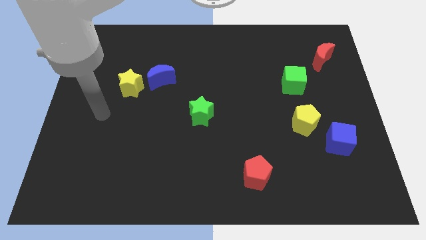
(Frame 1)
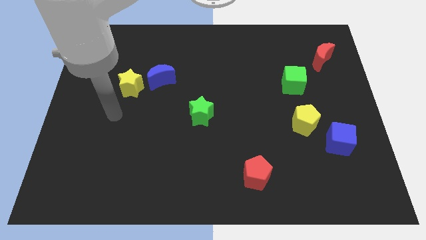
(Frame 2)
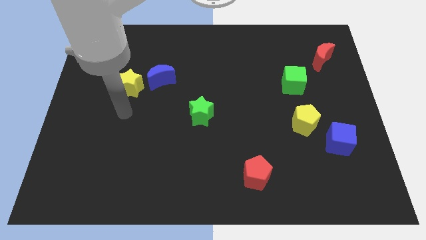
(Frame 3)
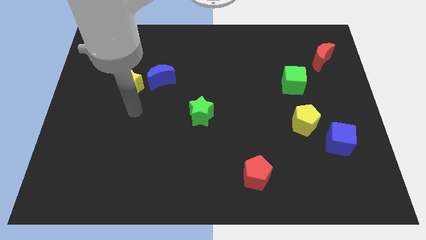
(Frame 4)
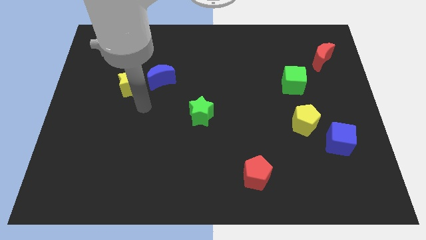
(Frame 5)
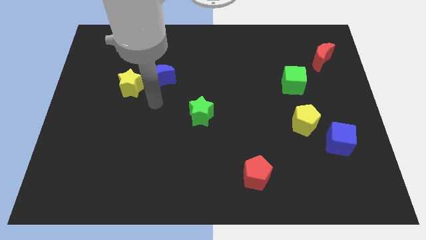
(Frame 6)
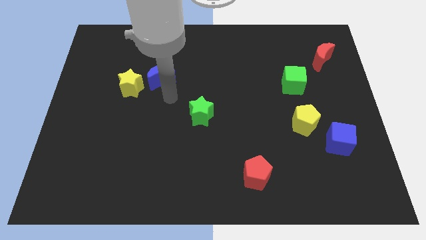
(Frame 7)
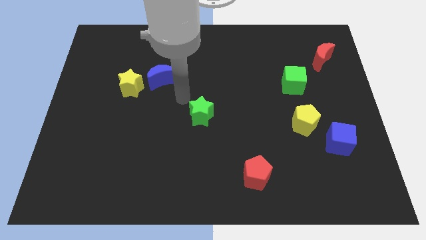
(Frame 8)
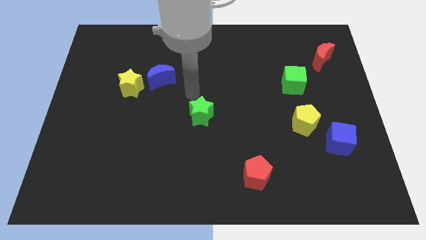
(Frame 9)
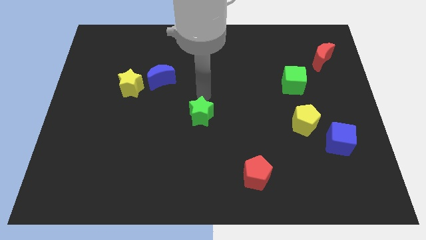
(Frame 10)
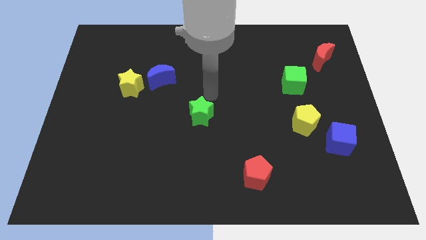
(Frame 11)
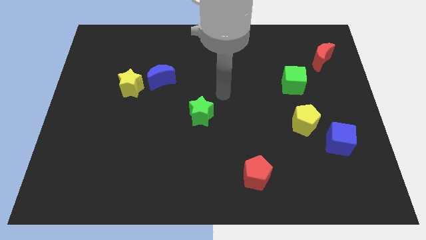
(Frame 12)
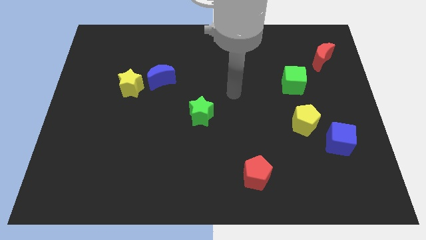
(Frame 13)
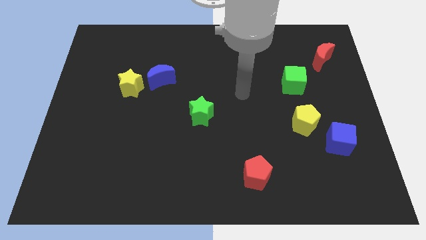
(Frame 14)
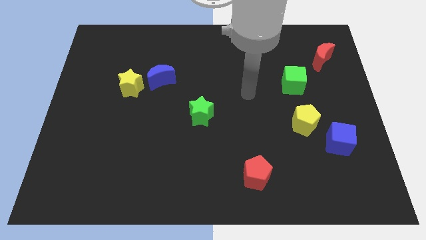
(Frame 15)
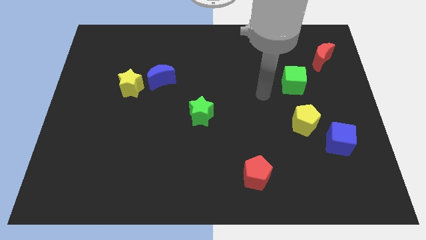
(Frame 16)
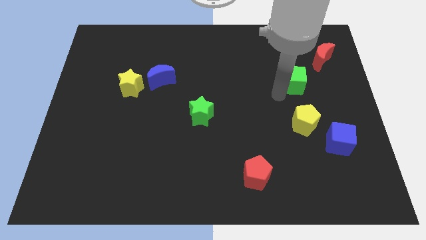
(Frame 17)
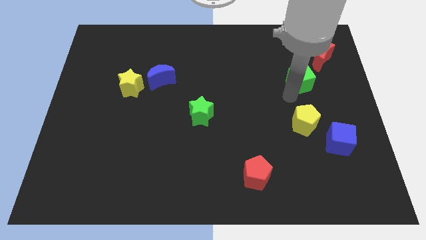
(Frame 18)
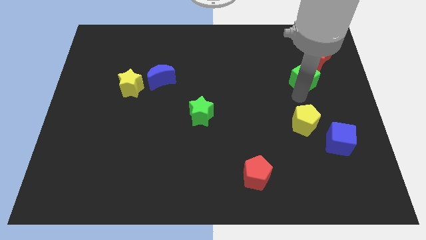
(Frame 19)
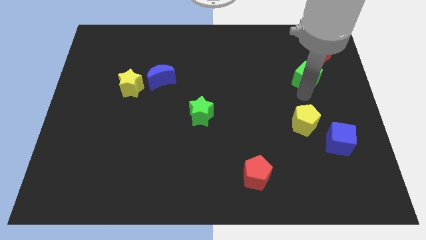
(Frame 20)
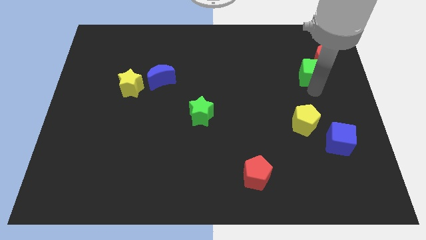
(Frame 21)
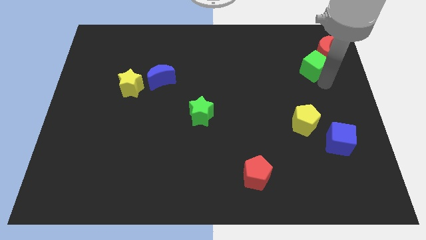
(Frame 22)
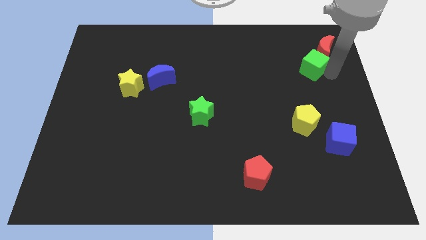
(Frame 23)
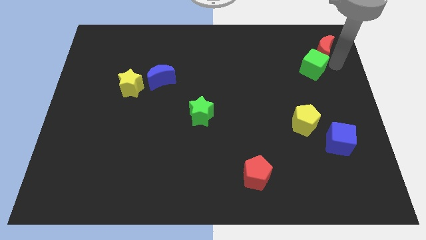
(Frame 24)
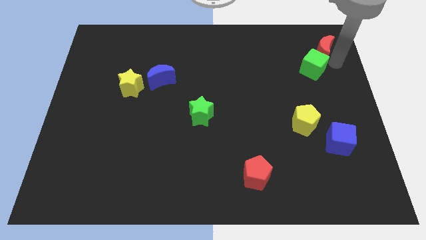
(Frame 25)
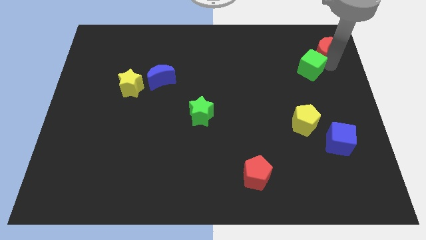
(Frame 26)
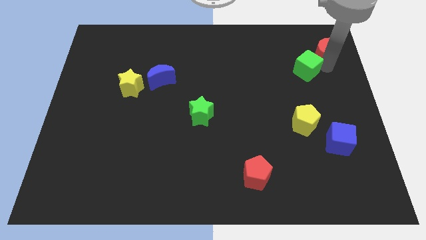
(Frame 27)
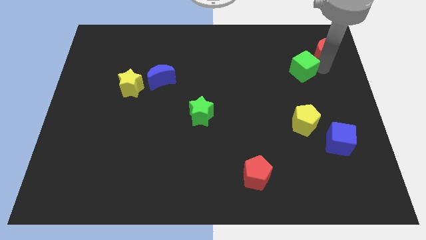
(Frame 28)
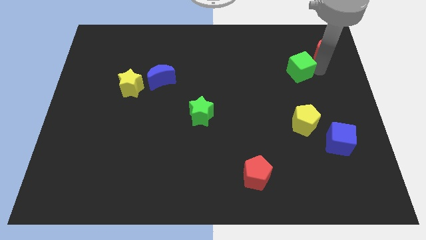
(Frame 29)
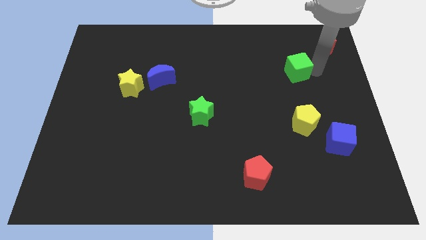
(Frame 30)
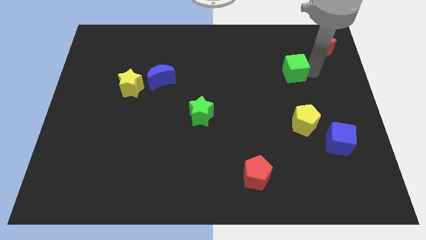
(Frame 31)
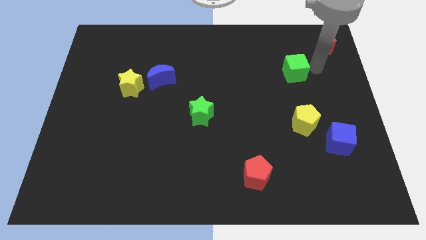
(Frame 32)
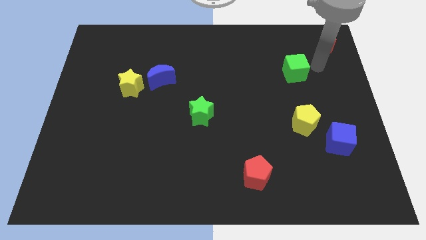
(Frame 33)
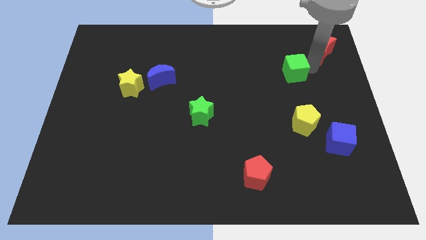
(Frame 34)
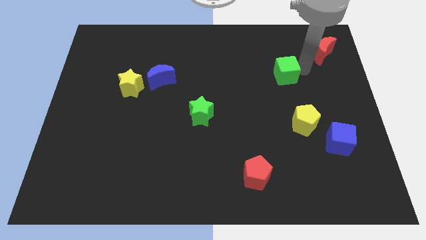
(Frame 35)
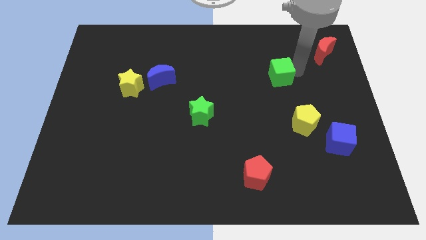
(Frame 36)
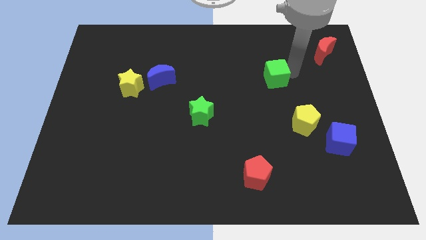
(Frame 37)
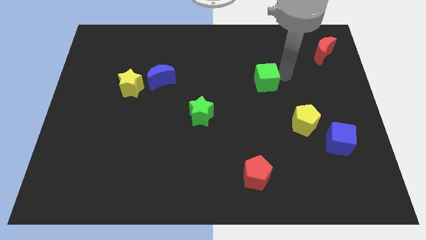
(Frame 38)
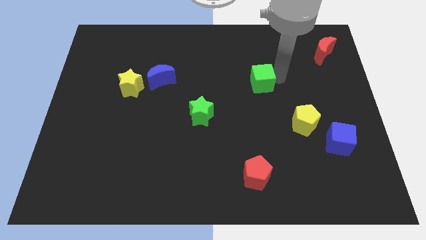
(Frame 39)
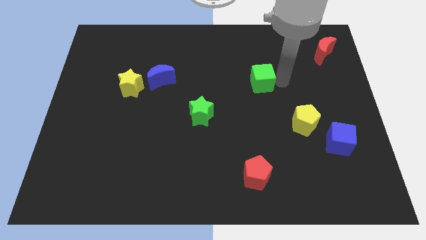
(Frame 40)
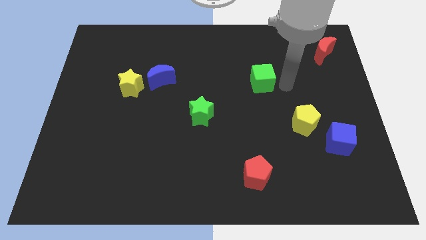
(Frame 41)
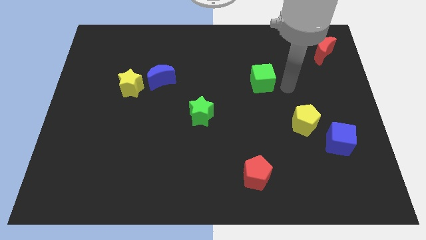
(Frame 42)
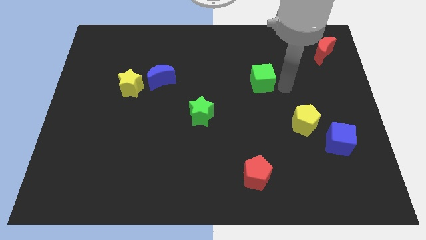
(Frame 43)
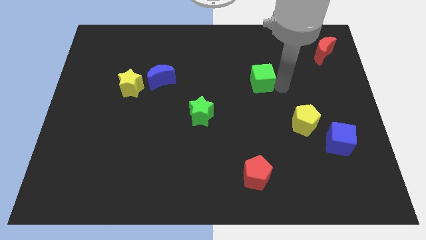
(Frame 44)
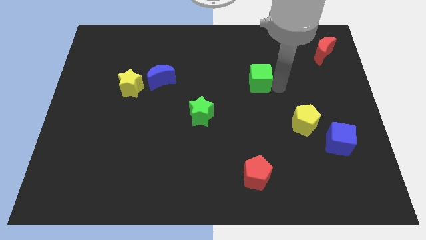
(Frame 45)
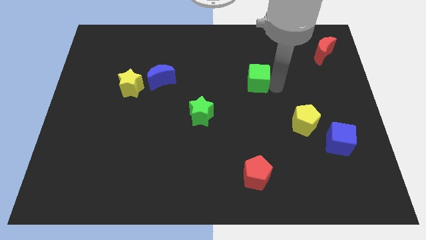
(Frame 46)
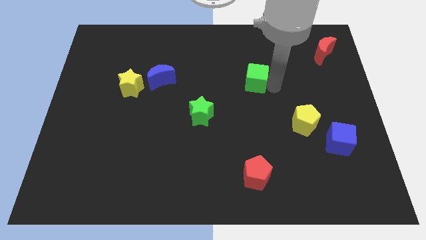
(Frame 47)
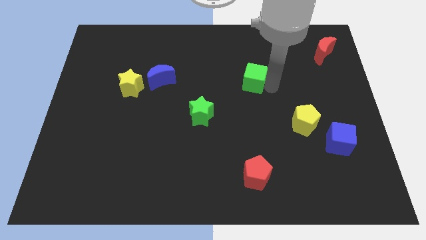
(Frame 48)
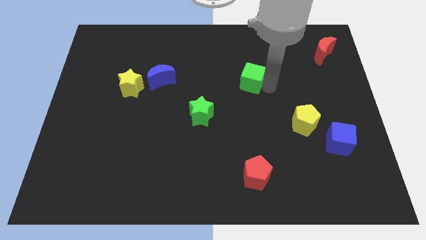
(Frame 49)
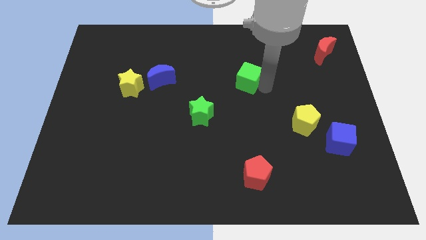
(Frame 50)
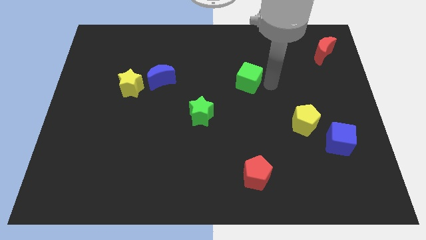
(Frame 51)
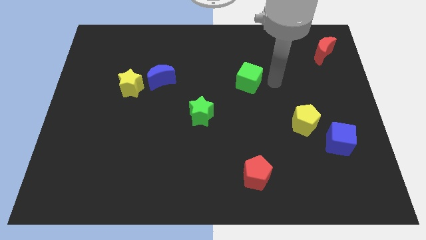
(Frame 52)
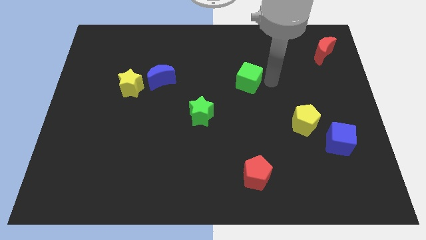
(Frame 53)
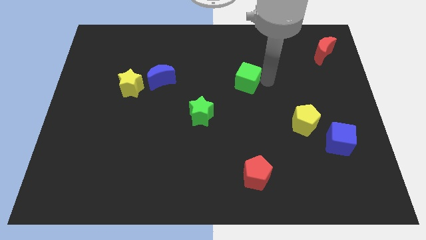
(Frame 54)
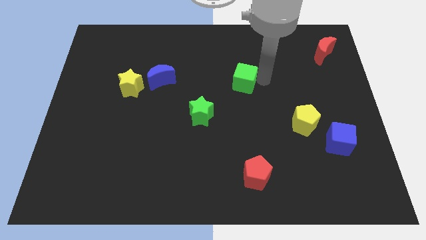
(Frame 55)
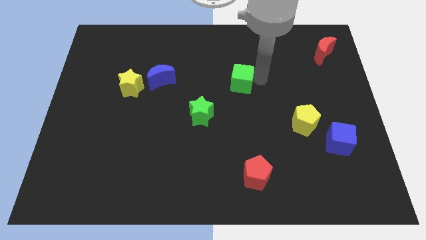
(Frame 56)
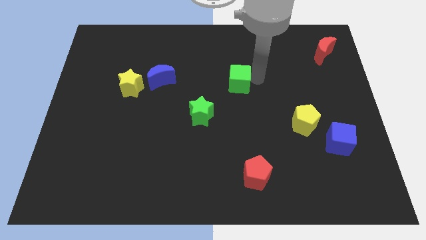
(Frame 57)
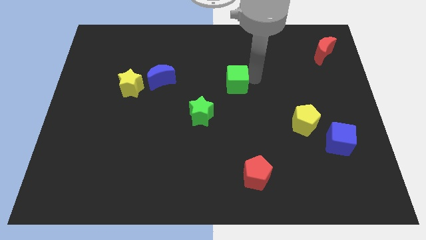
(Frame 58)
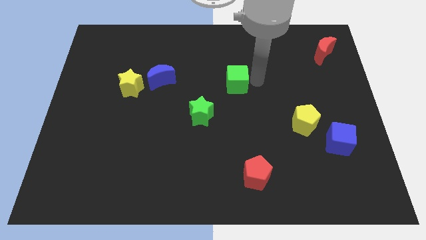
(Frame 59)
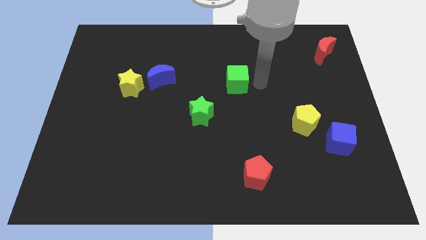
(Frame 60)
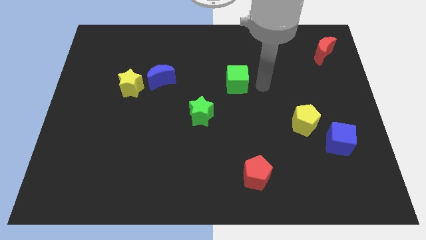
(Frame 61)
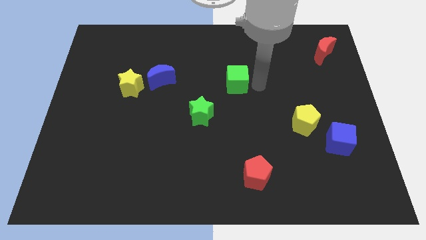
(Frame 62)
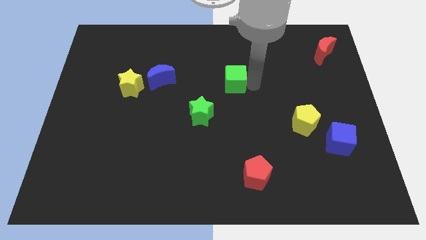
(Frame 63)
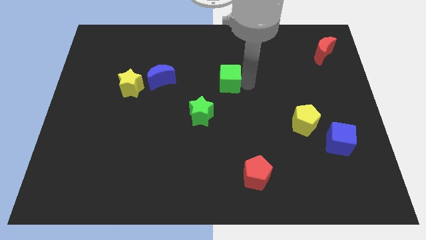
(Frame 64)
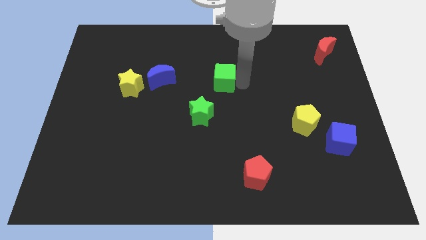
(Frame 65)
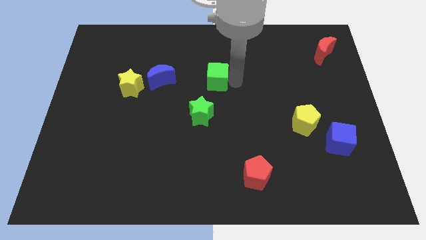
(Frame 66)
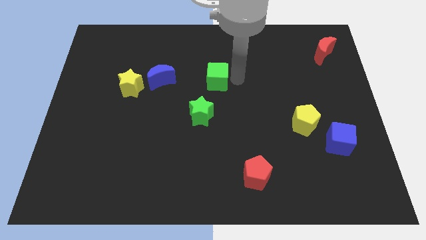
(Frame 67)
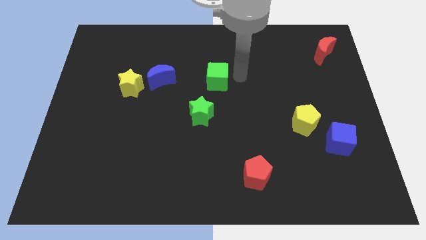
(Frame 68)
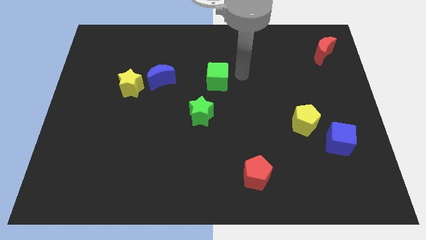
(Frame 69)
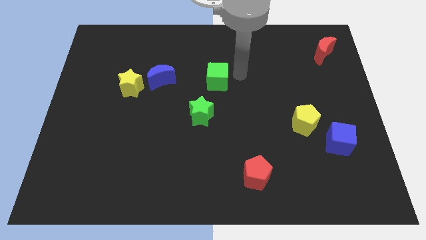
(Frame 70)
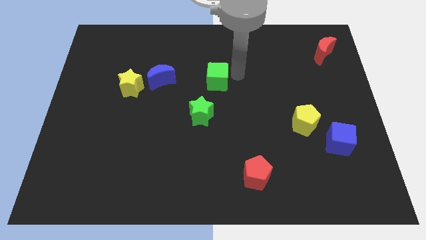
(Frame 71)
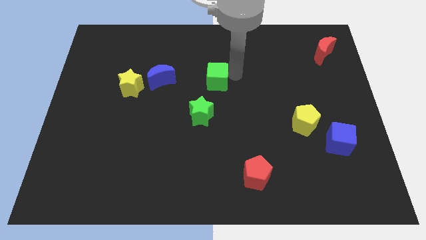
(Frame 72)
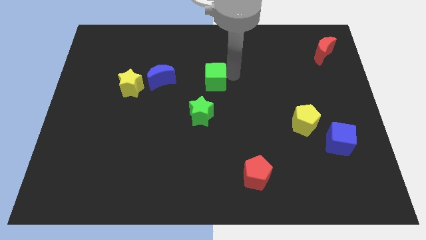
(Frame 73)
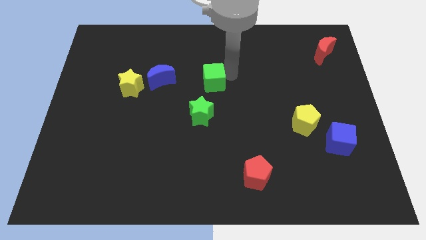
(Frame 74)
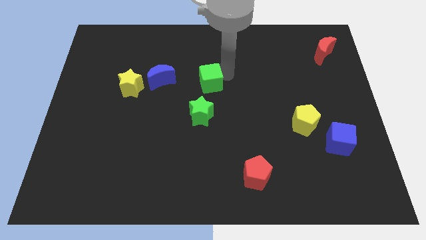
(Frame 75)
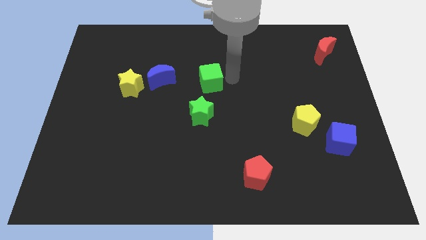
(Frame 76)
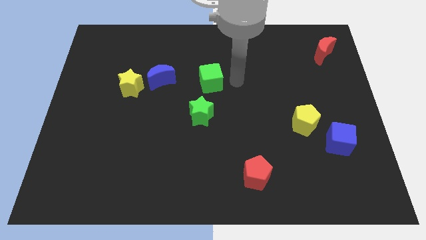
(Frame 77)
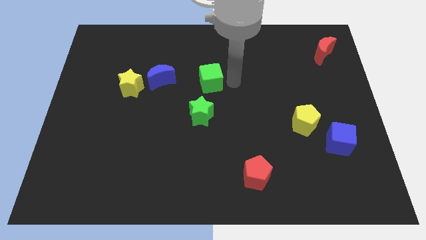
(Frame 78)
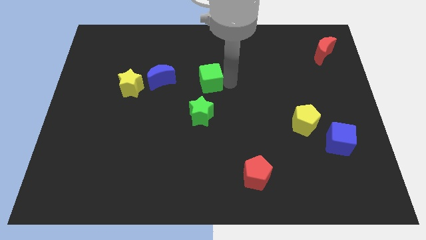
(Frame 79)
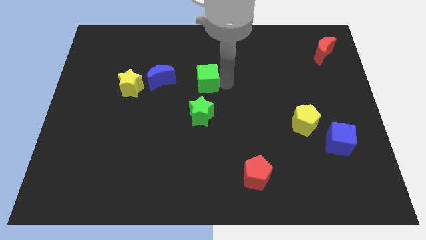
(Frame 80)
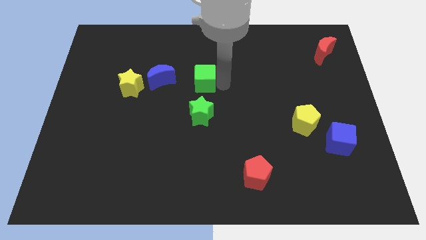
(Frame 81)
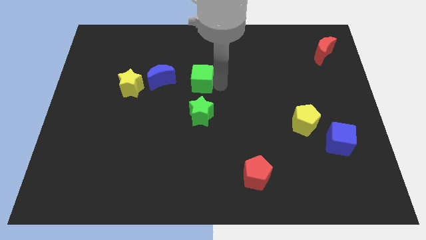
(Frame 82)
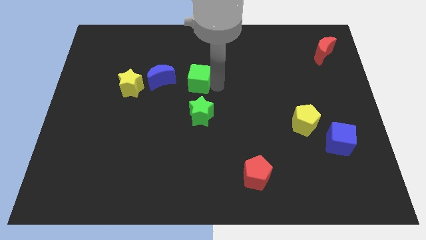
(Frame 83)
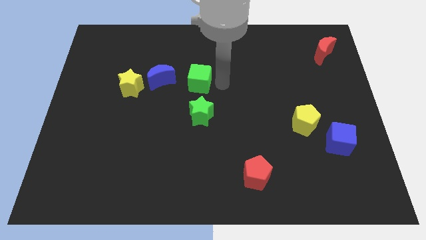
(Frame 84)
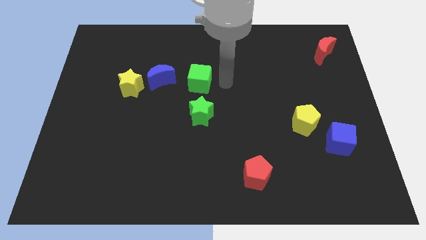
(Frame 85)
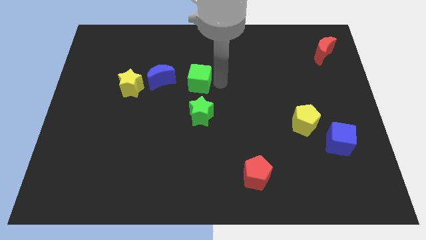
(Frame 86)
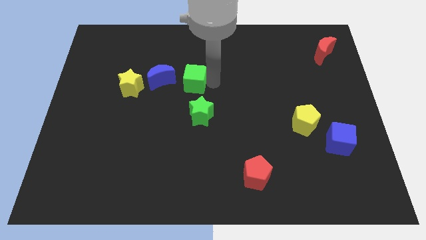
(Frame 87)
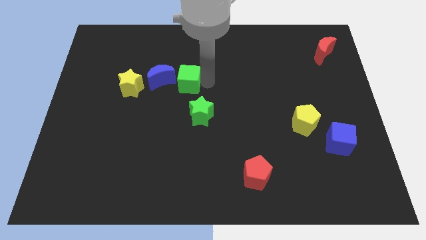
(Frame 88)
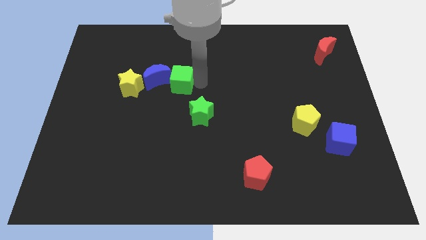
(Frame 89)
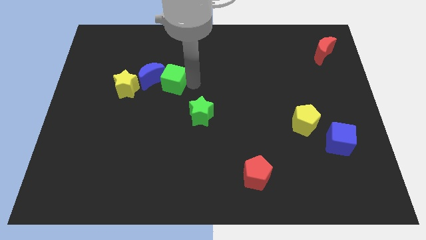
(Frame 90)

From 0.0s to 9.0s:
move the green cube close to the blue moon
